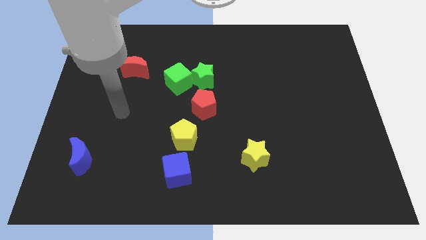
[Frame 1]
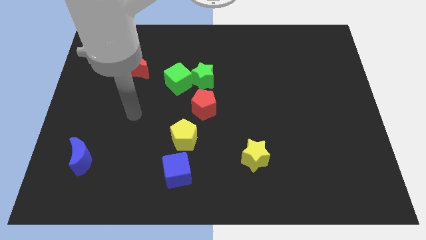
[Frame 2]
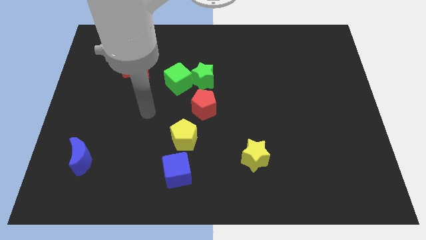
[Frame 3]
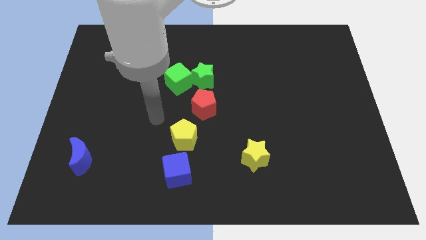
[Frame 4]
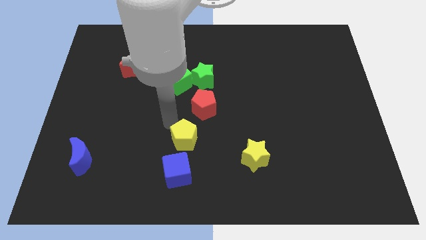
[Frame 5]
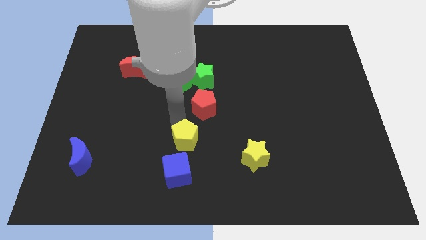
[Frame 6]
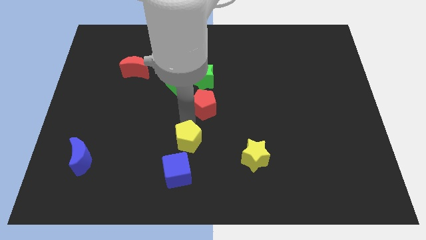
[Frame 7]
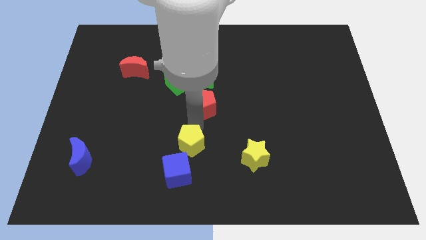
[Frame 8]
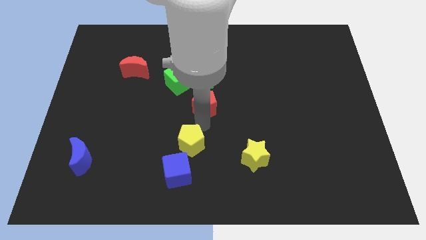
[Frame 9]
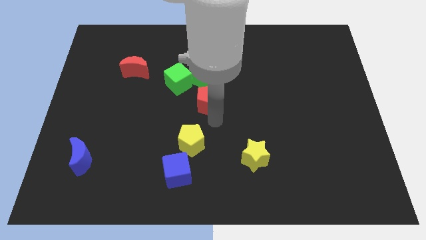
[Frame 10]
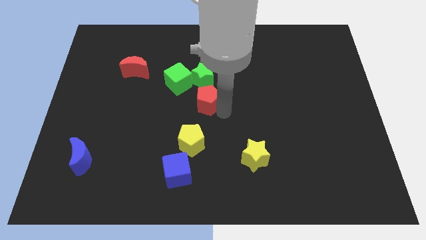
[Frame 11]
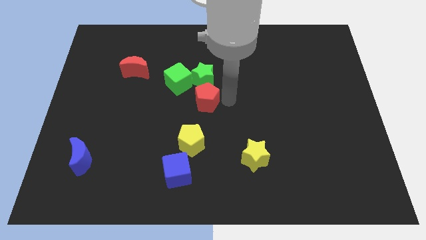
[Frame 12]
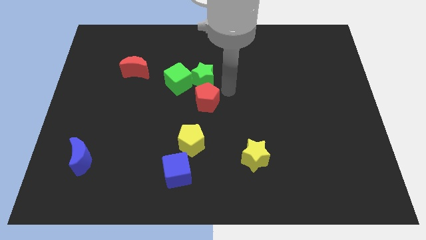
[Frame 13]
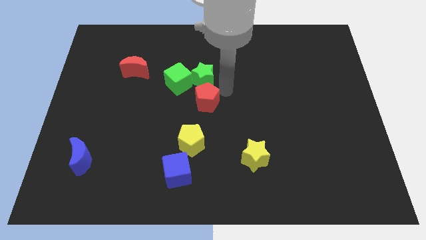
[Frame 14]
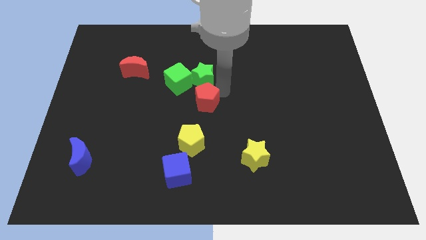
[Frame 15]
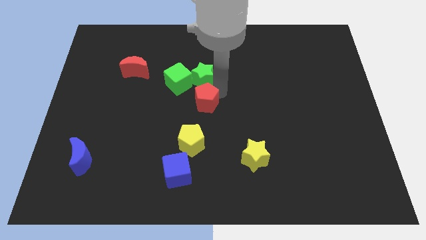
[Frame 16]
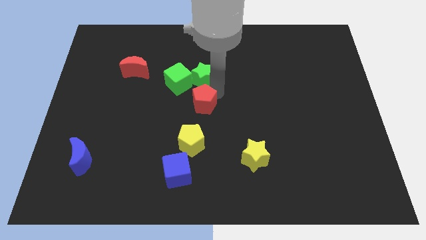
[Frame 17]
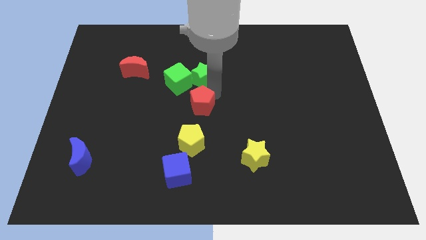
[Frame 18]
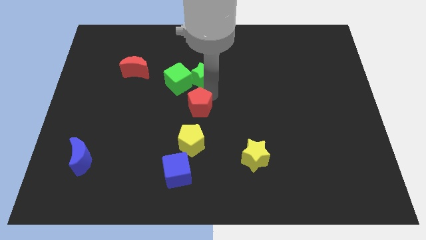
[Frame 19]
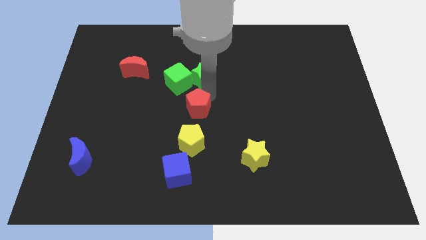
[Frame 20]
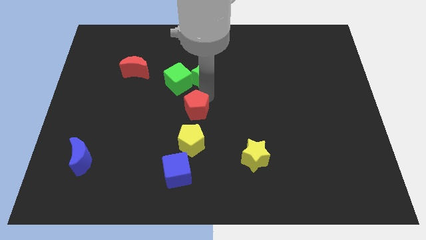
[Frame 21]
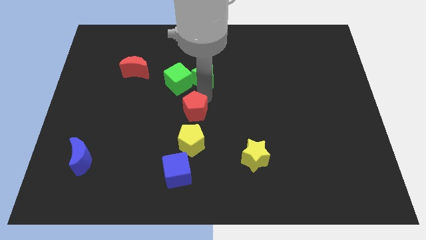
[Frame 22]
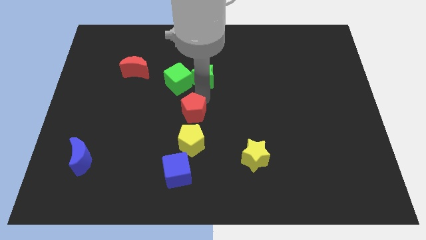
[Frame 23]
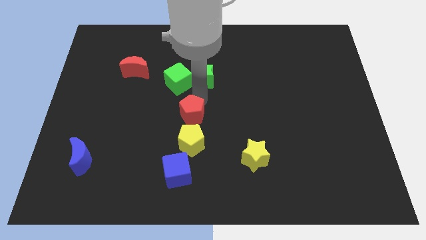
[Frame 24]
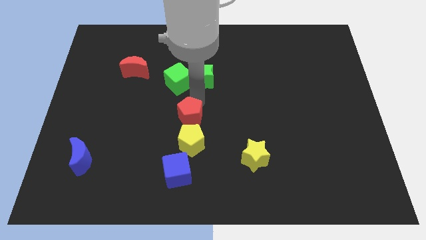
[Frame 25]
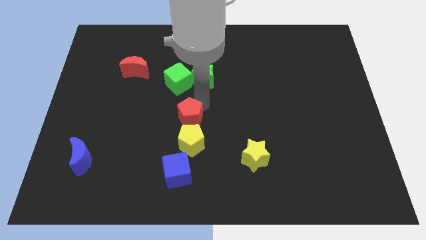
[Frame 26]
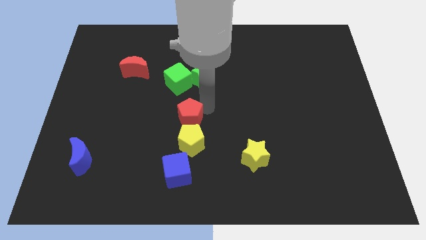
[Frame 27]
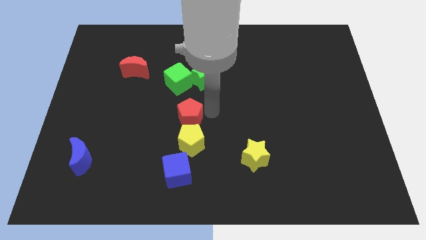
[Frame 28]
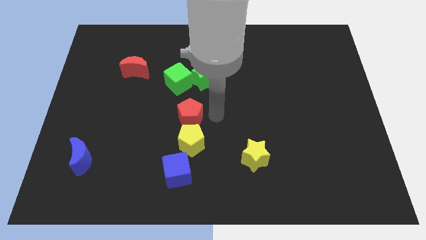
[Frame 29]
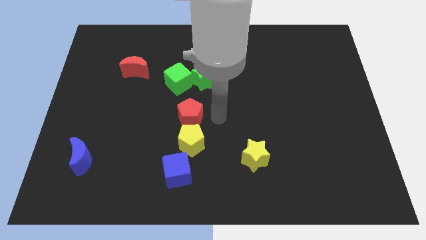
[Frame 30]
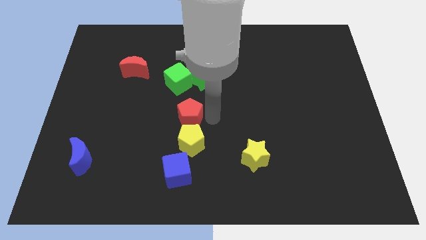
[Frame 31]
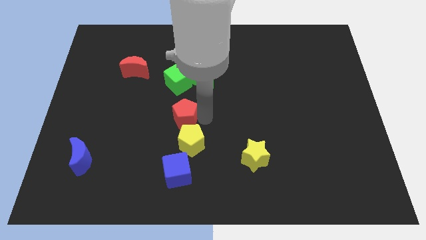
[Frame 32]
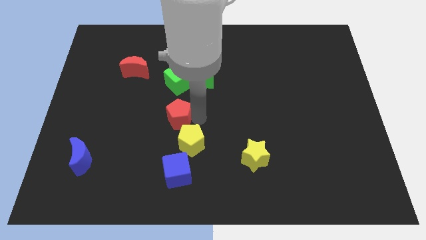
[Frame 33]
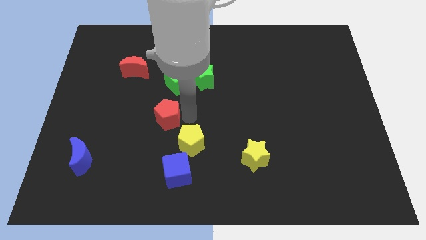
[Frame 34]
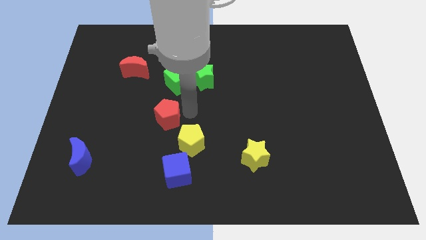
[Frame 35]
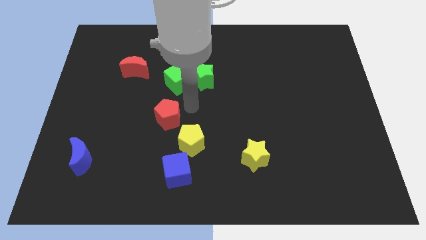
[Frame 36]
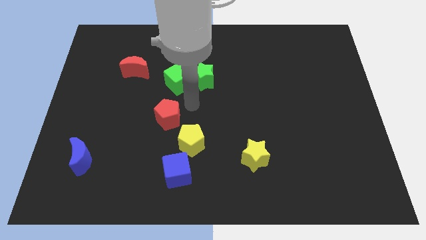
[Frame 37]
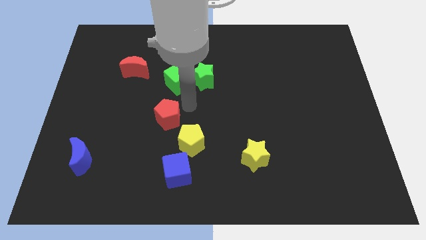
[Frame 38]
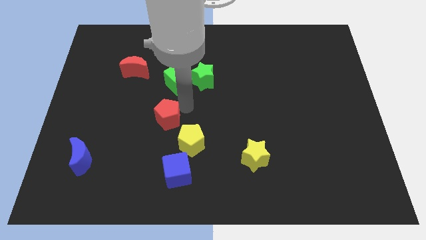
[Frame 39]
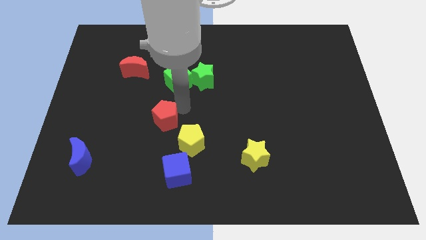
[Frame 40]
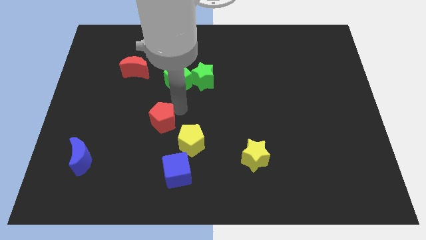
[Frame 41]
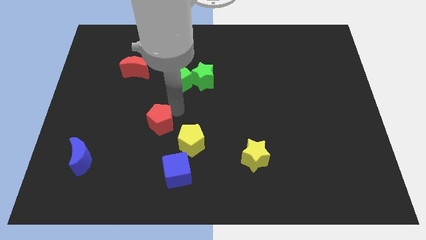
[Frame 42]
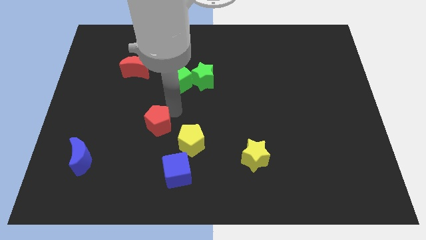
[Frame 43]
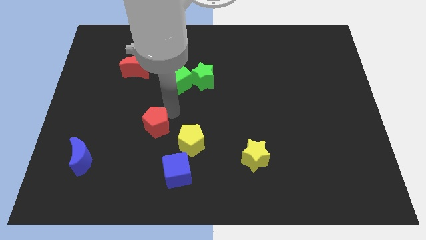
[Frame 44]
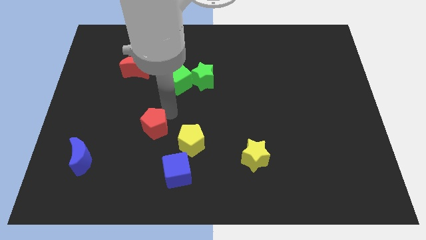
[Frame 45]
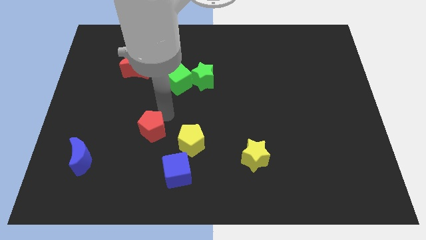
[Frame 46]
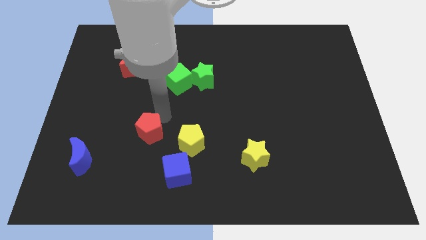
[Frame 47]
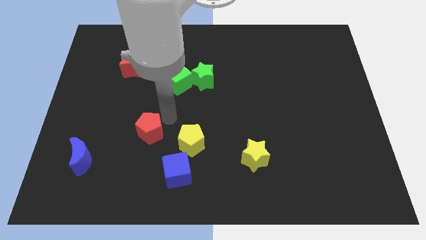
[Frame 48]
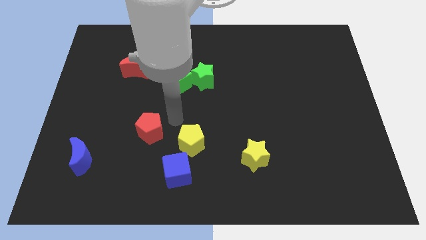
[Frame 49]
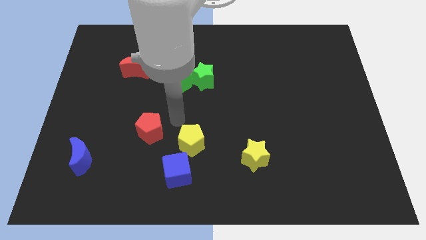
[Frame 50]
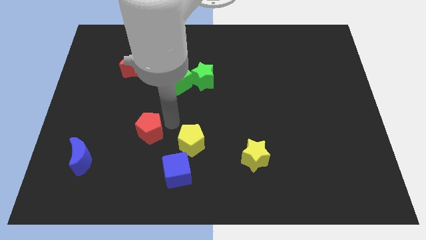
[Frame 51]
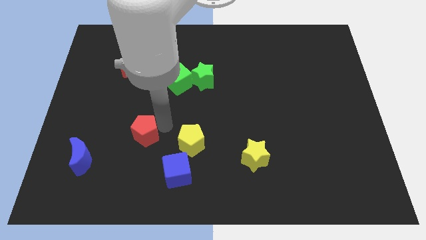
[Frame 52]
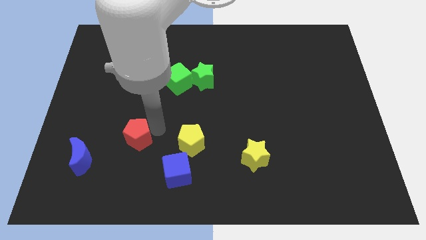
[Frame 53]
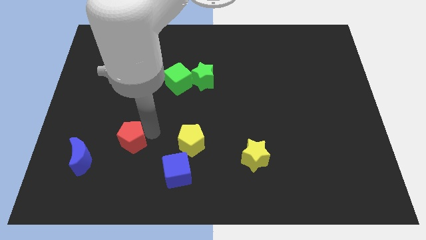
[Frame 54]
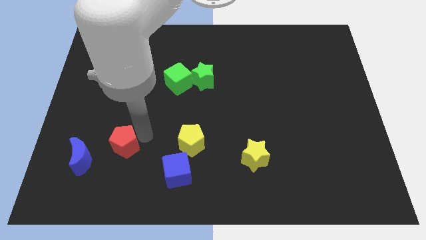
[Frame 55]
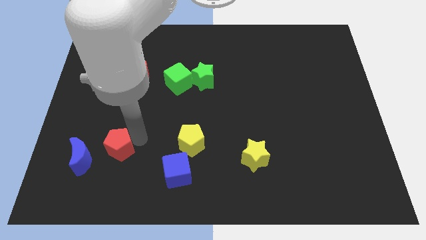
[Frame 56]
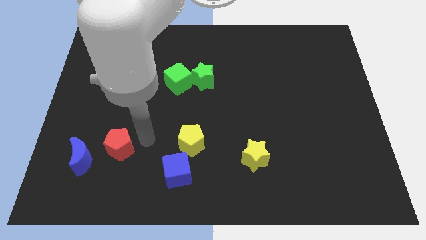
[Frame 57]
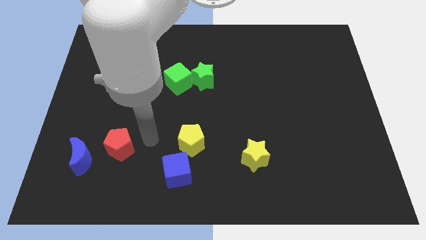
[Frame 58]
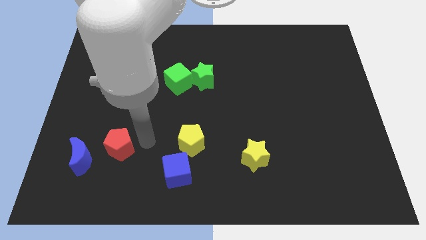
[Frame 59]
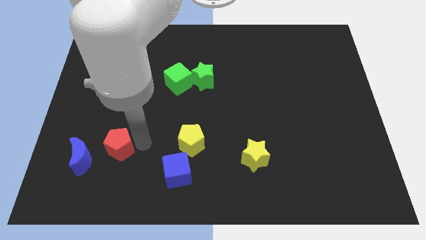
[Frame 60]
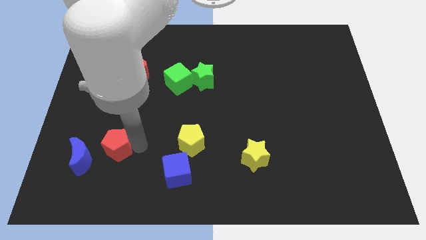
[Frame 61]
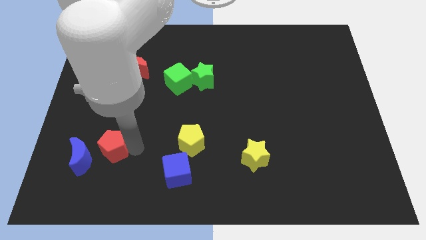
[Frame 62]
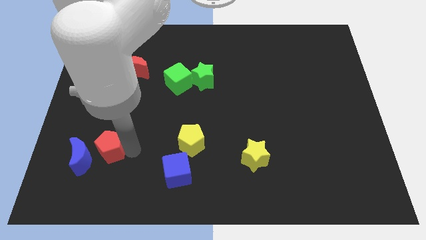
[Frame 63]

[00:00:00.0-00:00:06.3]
push the red pentagon to the blue moon
